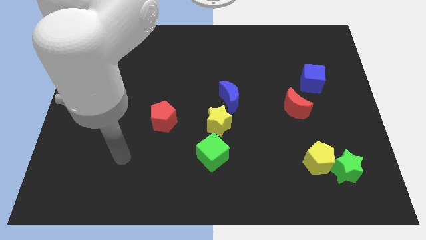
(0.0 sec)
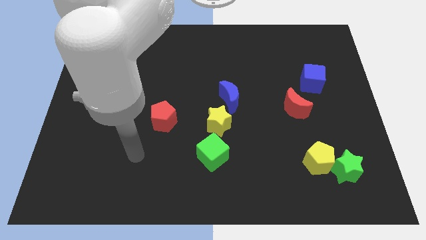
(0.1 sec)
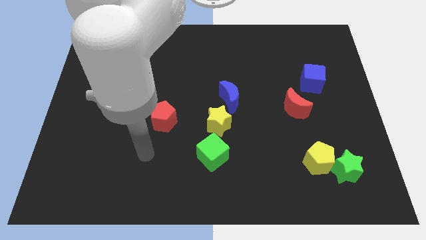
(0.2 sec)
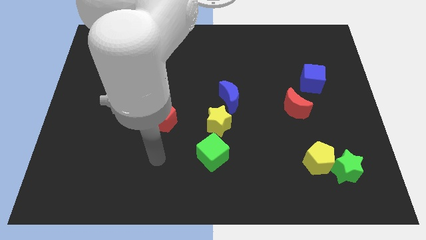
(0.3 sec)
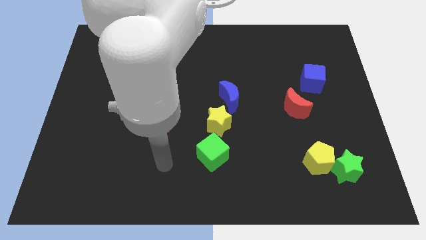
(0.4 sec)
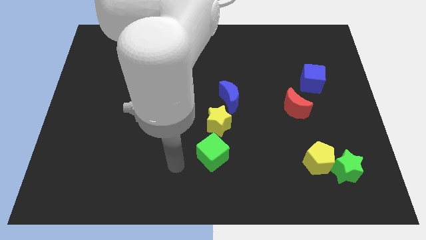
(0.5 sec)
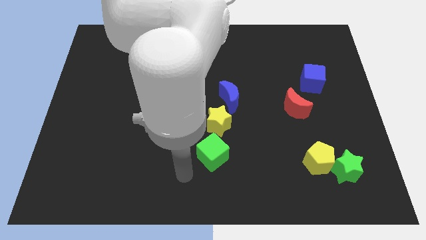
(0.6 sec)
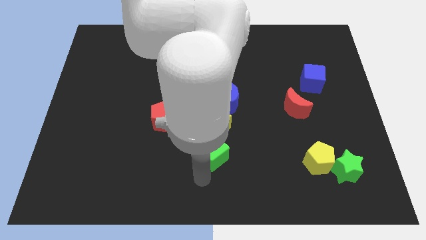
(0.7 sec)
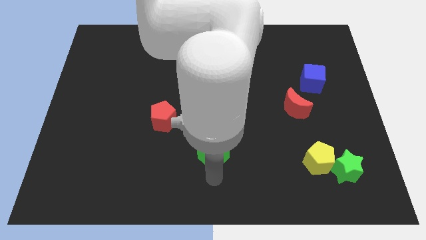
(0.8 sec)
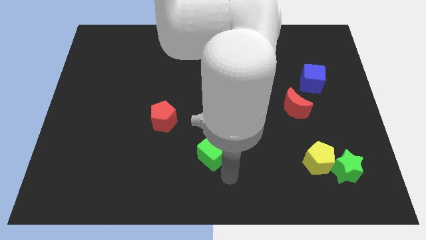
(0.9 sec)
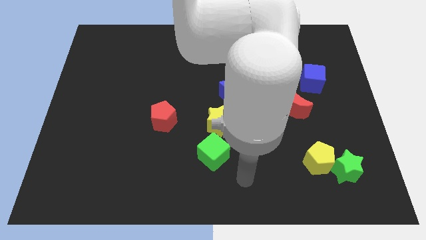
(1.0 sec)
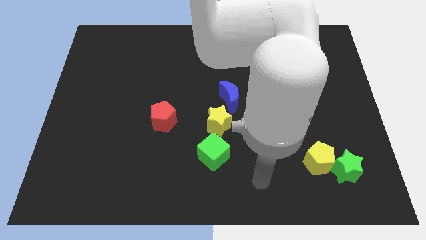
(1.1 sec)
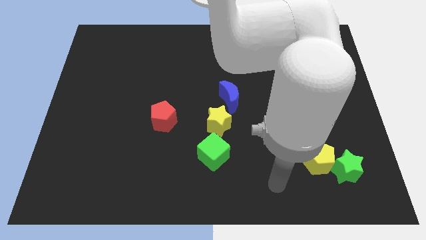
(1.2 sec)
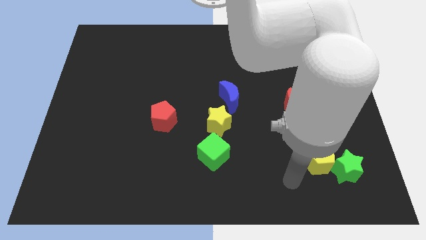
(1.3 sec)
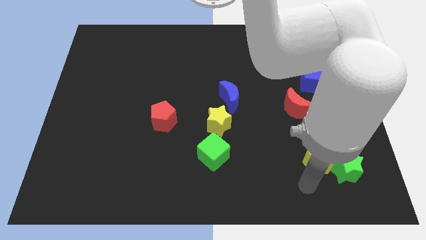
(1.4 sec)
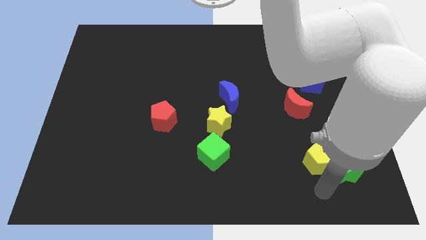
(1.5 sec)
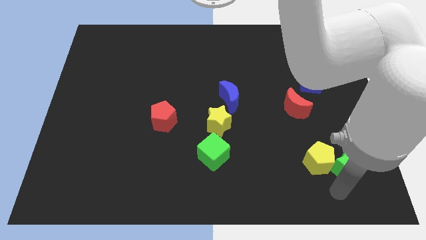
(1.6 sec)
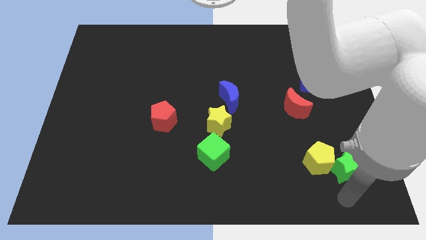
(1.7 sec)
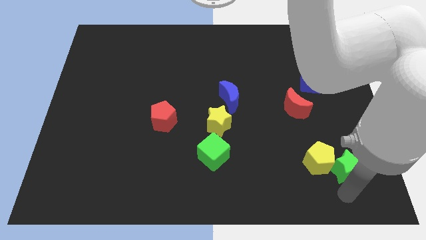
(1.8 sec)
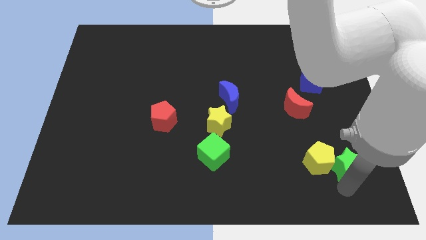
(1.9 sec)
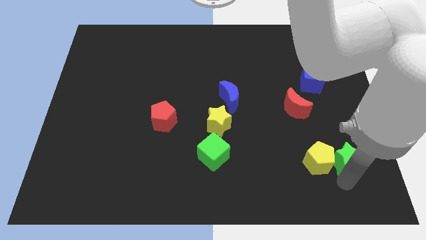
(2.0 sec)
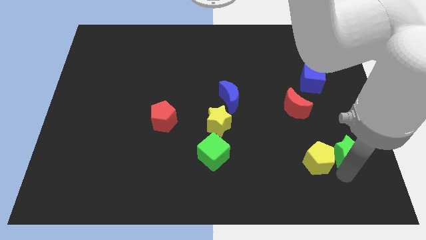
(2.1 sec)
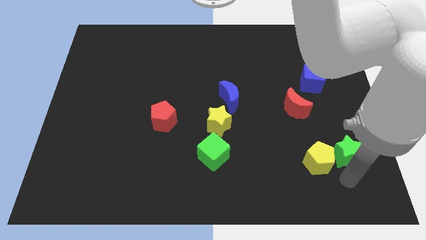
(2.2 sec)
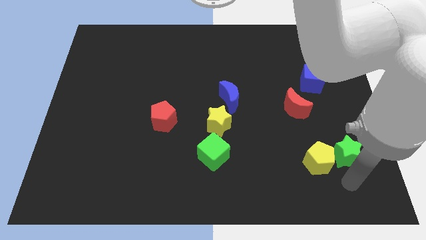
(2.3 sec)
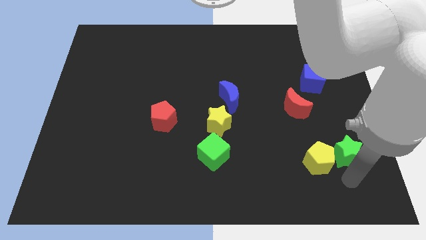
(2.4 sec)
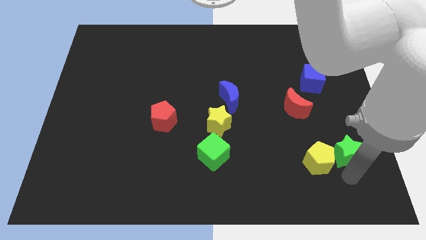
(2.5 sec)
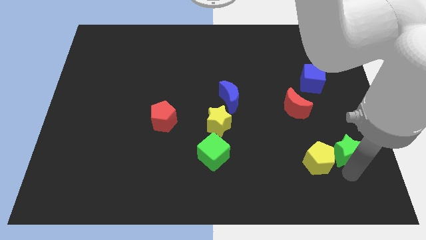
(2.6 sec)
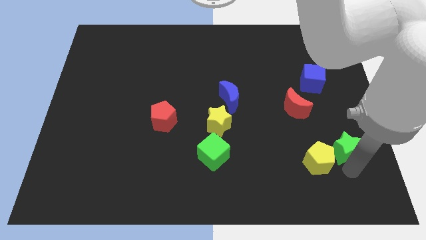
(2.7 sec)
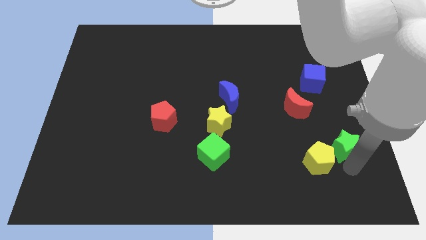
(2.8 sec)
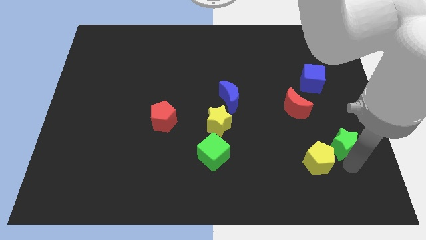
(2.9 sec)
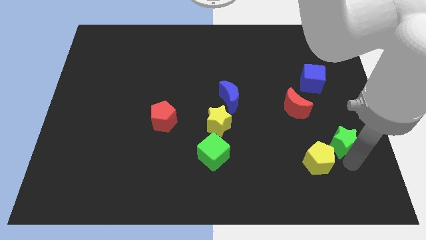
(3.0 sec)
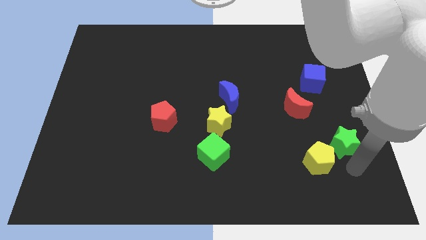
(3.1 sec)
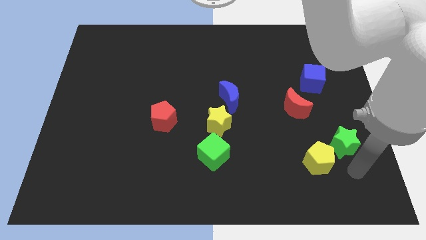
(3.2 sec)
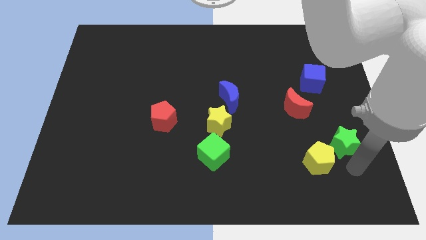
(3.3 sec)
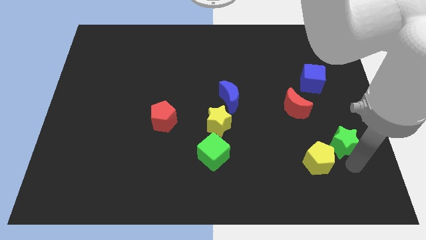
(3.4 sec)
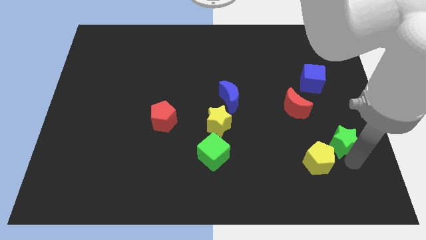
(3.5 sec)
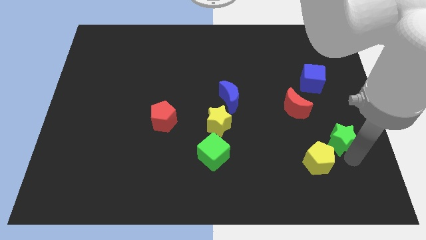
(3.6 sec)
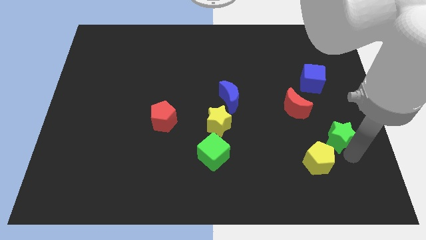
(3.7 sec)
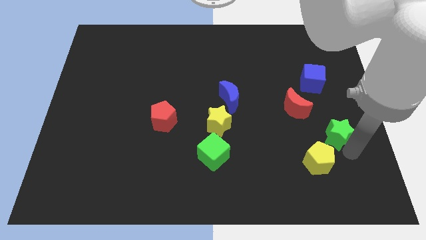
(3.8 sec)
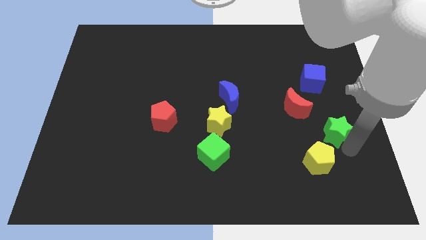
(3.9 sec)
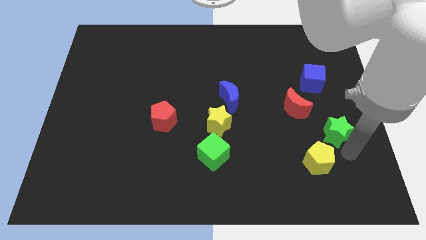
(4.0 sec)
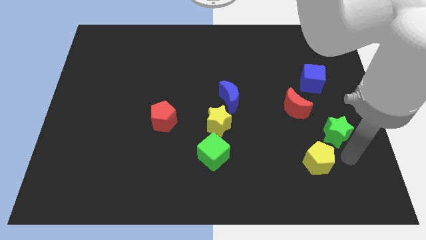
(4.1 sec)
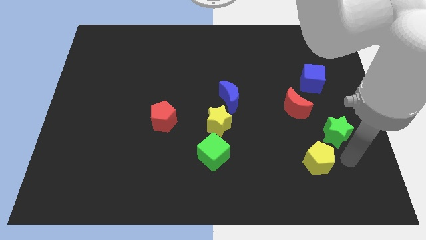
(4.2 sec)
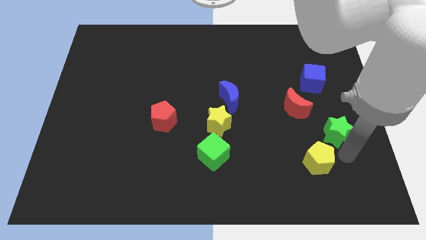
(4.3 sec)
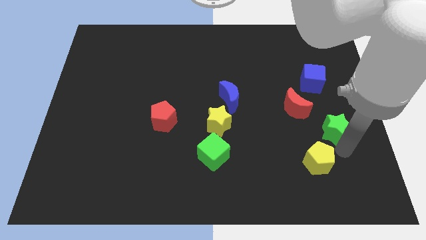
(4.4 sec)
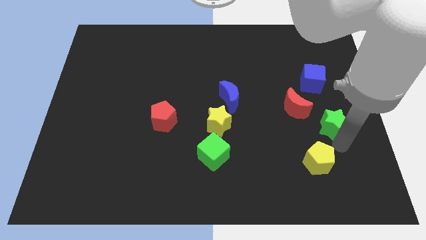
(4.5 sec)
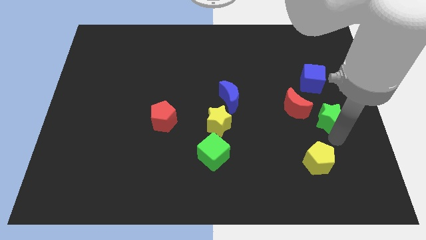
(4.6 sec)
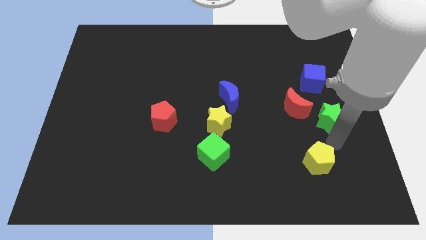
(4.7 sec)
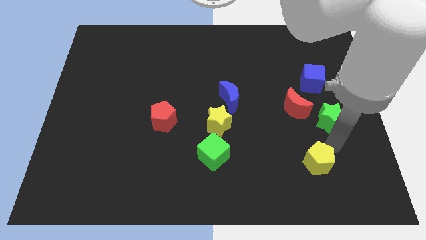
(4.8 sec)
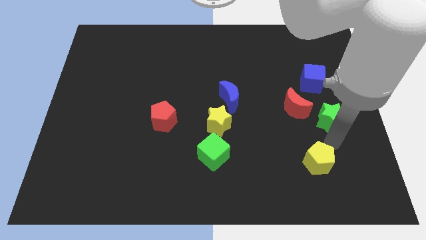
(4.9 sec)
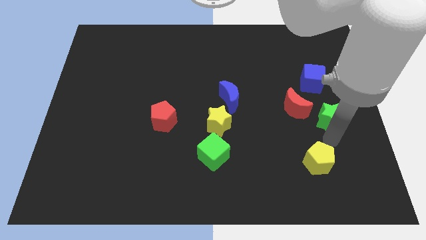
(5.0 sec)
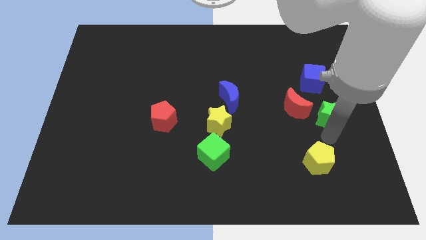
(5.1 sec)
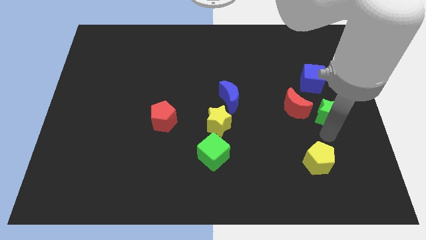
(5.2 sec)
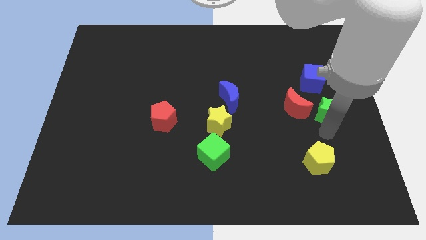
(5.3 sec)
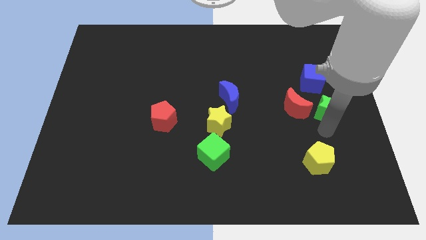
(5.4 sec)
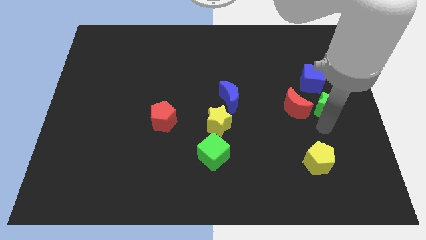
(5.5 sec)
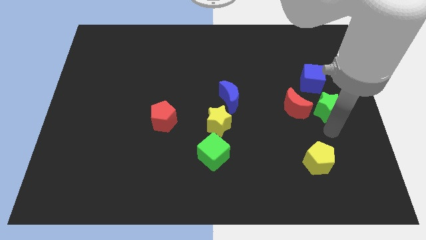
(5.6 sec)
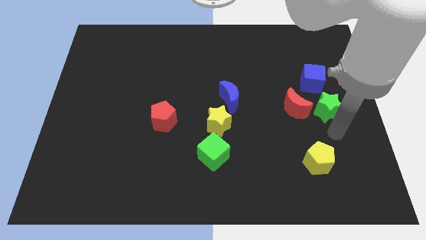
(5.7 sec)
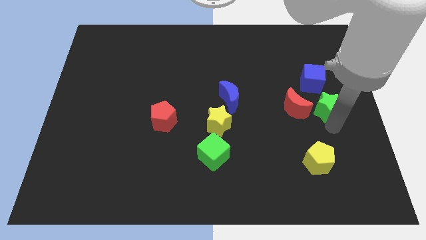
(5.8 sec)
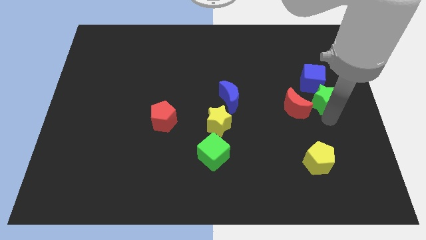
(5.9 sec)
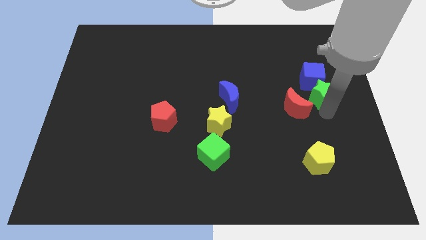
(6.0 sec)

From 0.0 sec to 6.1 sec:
put the green star next to the blue cube

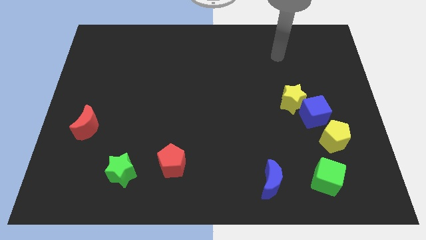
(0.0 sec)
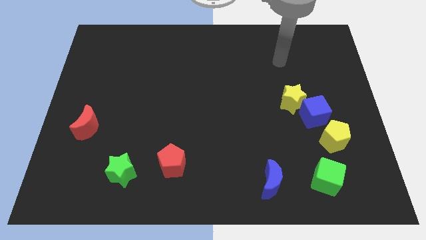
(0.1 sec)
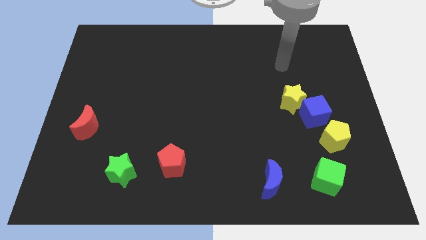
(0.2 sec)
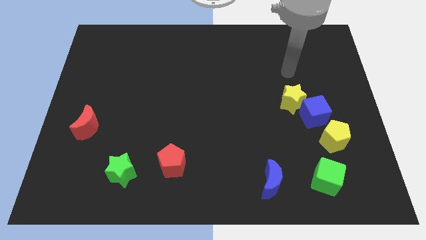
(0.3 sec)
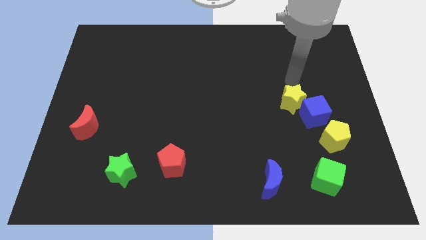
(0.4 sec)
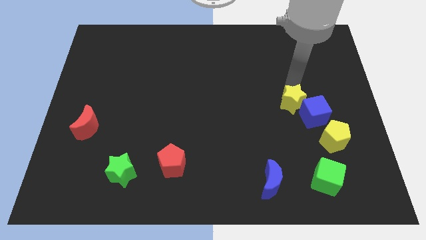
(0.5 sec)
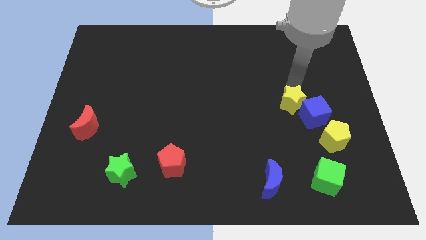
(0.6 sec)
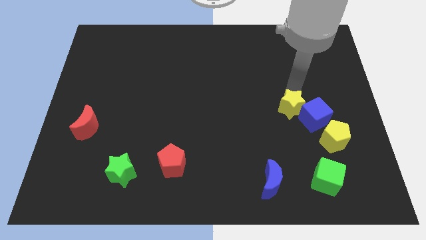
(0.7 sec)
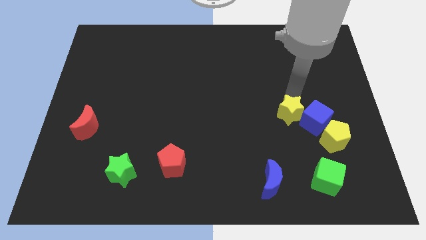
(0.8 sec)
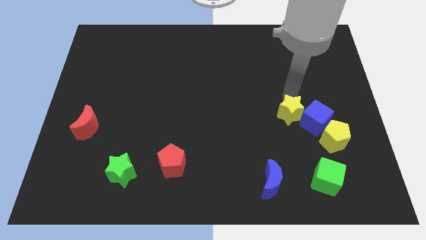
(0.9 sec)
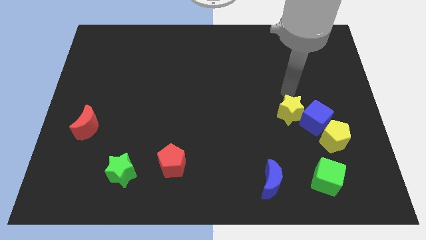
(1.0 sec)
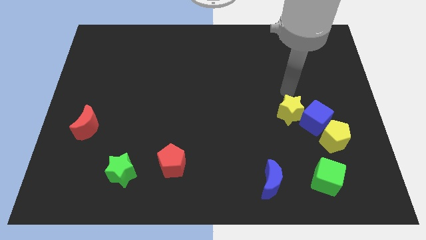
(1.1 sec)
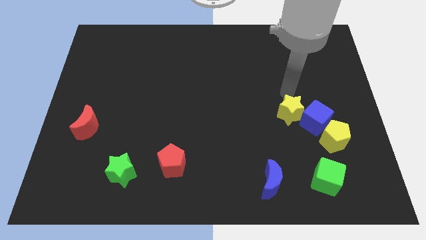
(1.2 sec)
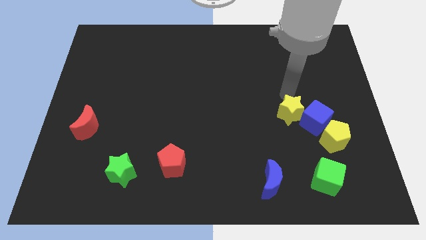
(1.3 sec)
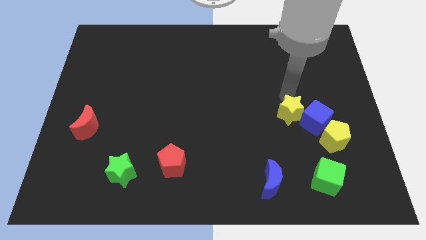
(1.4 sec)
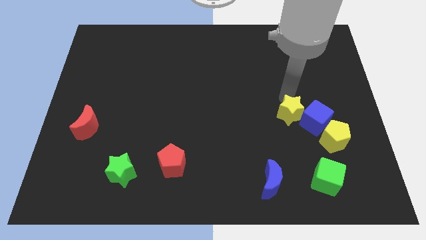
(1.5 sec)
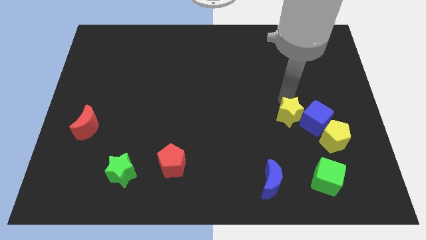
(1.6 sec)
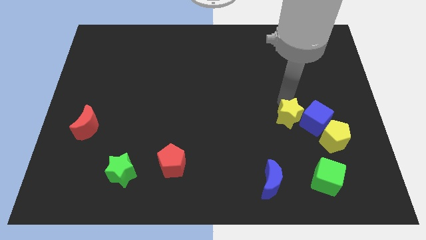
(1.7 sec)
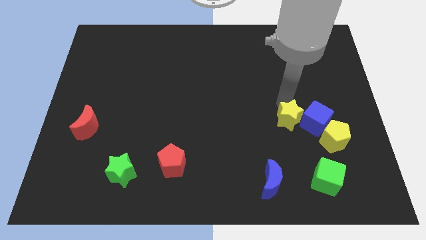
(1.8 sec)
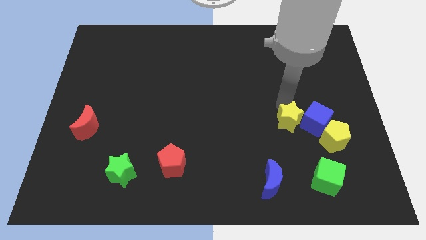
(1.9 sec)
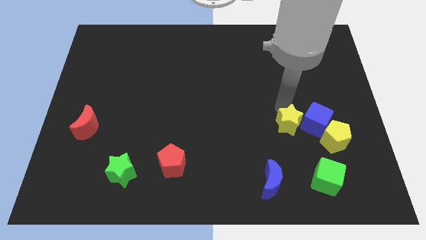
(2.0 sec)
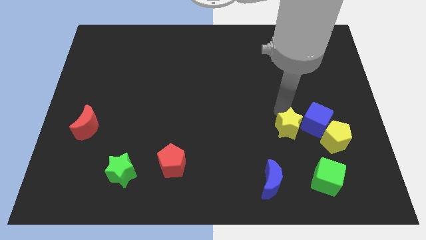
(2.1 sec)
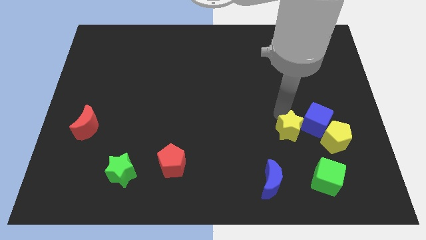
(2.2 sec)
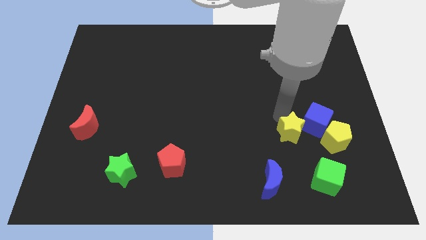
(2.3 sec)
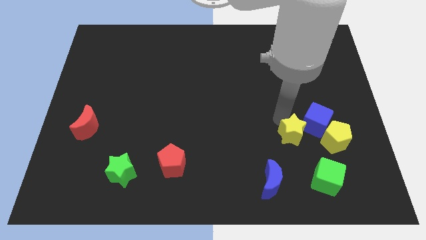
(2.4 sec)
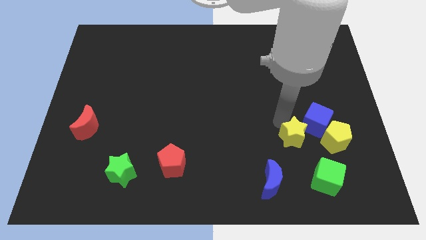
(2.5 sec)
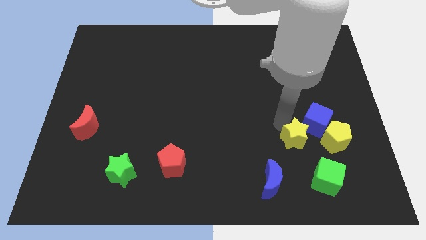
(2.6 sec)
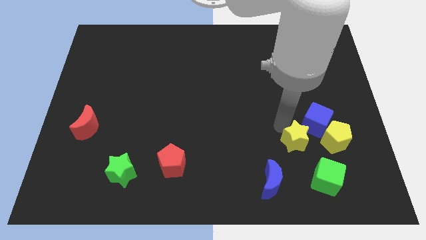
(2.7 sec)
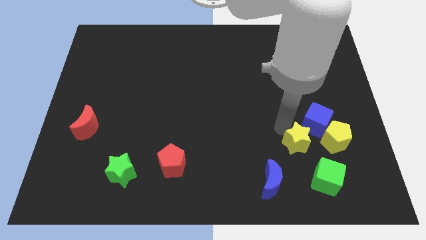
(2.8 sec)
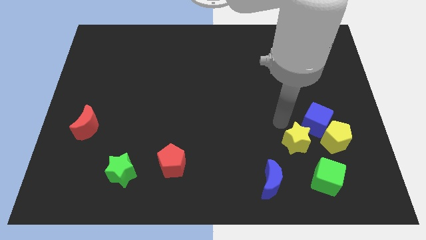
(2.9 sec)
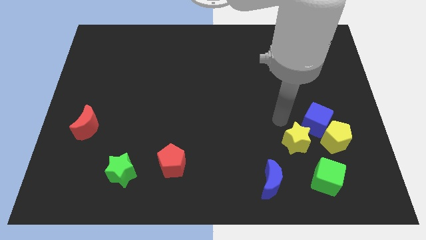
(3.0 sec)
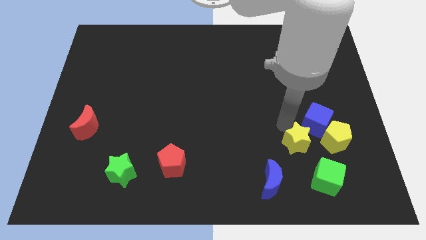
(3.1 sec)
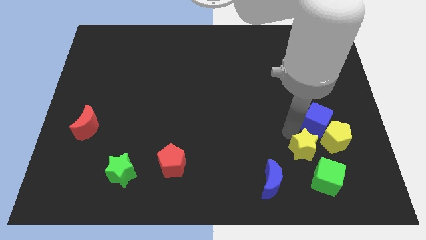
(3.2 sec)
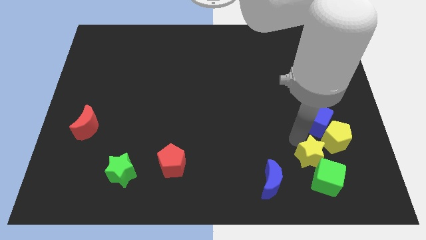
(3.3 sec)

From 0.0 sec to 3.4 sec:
move the yellow star towards the green cube
